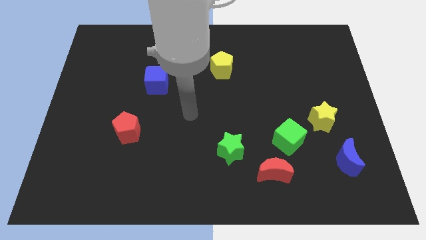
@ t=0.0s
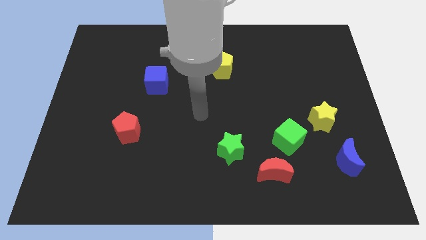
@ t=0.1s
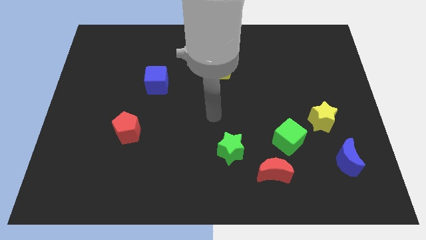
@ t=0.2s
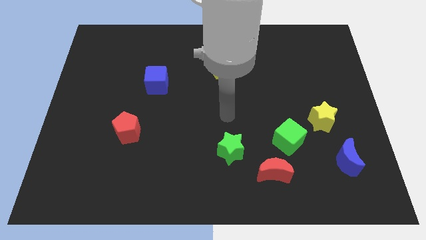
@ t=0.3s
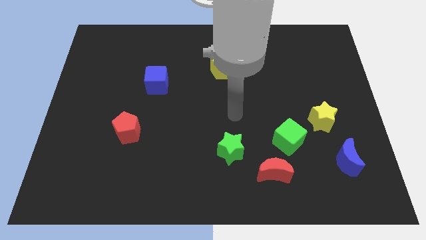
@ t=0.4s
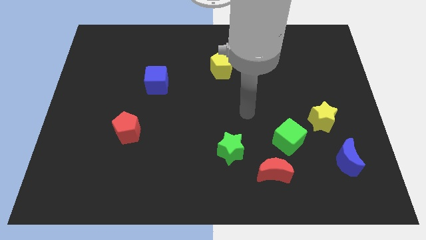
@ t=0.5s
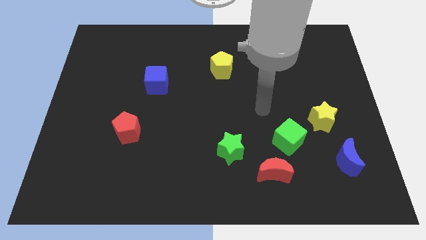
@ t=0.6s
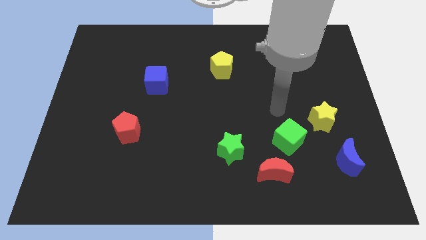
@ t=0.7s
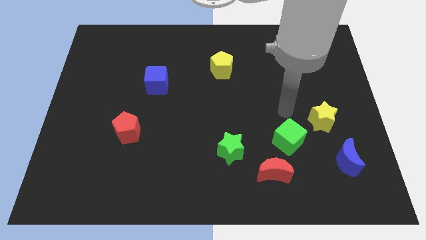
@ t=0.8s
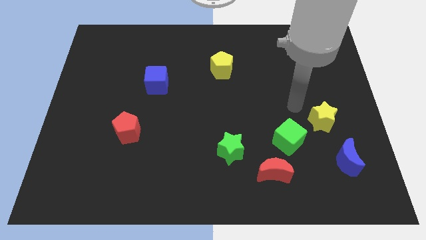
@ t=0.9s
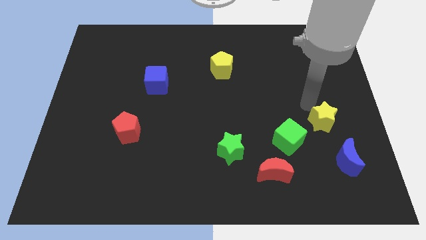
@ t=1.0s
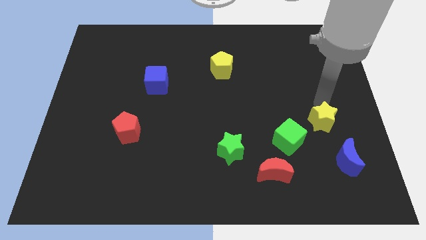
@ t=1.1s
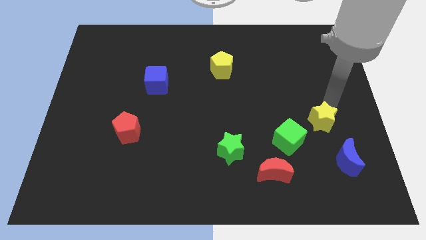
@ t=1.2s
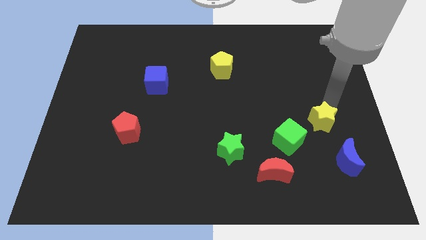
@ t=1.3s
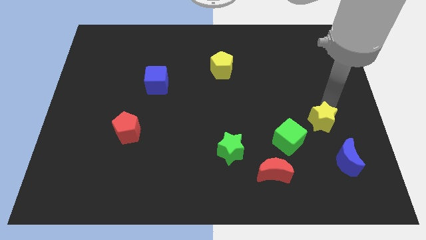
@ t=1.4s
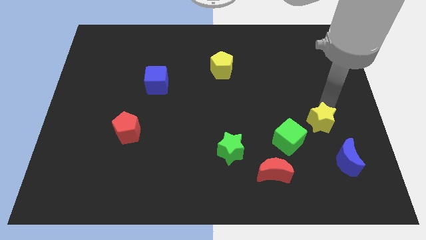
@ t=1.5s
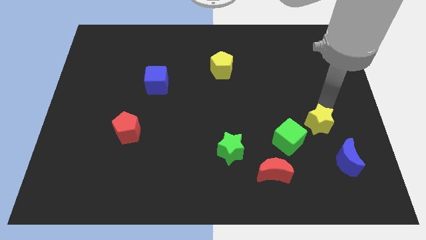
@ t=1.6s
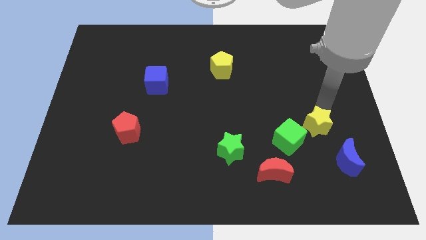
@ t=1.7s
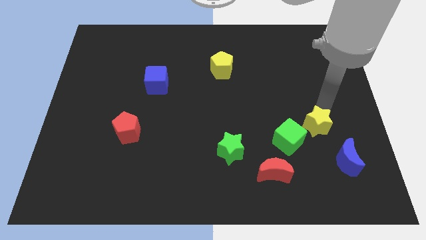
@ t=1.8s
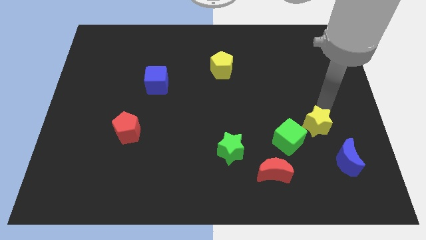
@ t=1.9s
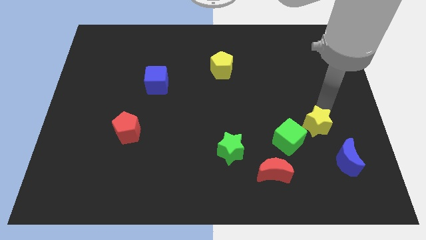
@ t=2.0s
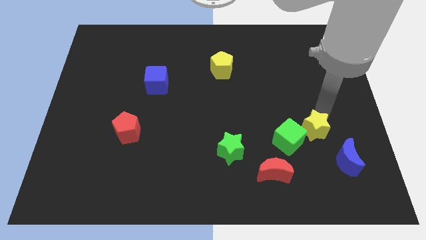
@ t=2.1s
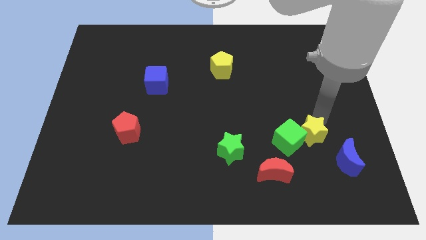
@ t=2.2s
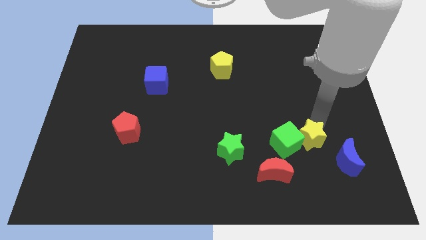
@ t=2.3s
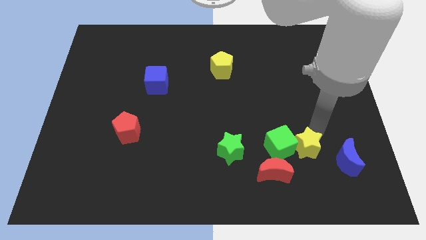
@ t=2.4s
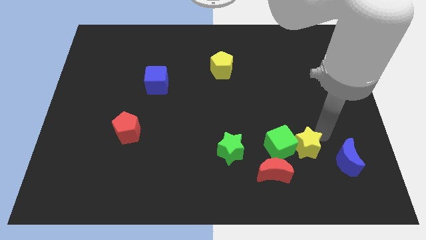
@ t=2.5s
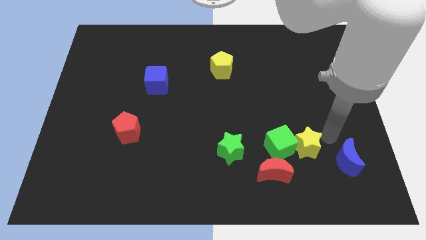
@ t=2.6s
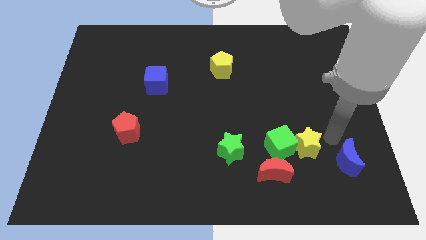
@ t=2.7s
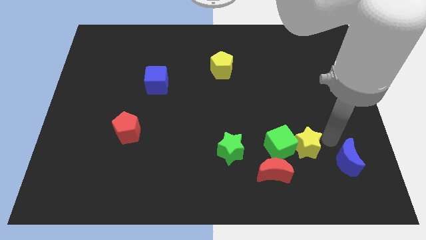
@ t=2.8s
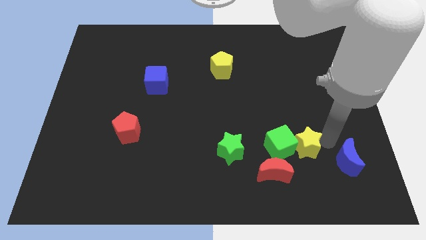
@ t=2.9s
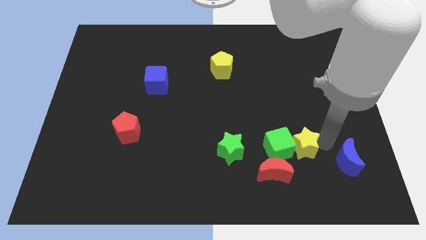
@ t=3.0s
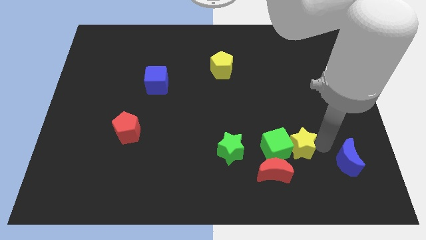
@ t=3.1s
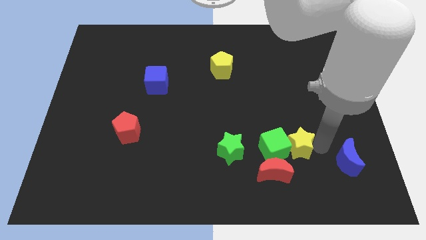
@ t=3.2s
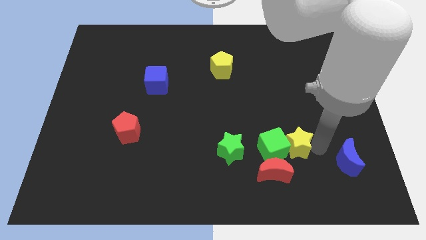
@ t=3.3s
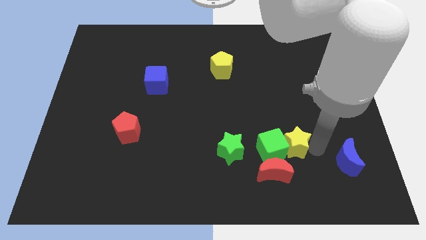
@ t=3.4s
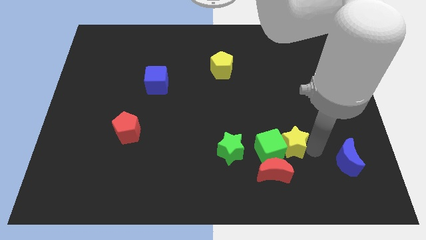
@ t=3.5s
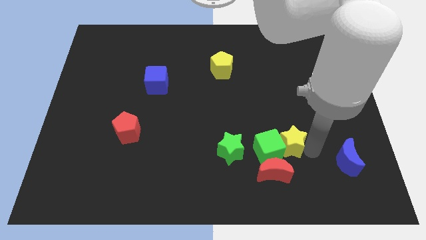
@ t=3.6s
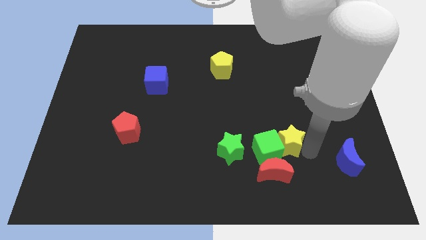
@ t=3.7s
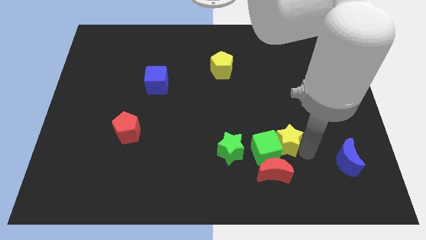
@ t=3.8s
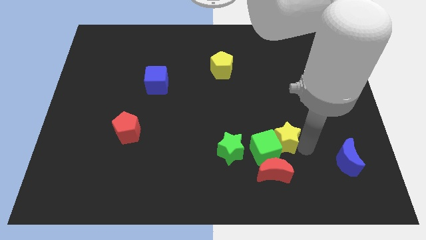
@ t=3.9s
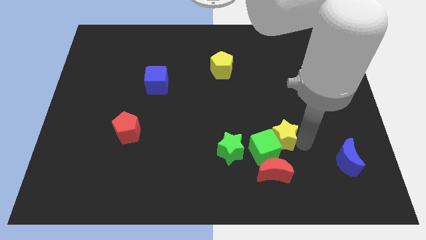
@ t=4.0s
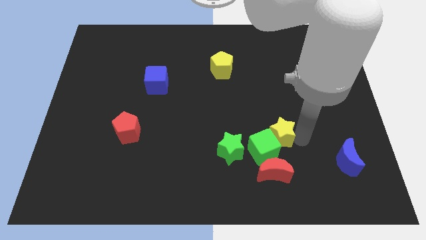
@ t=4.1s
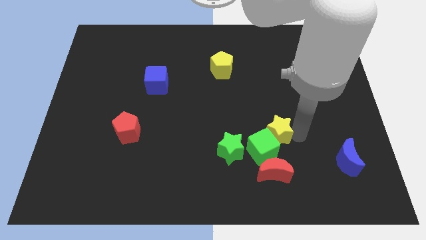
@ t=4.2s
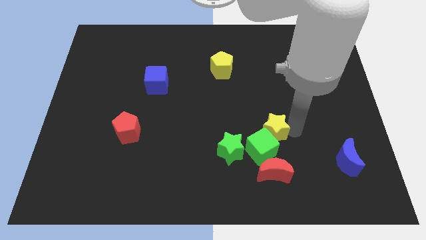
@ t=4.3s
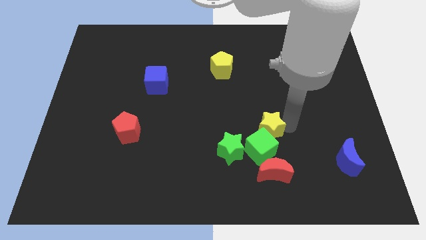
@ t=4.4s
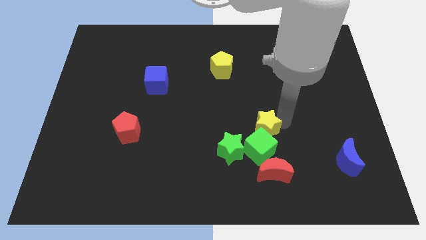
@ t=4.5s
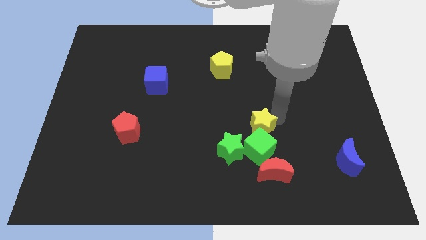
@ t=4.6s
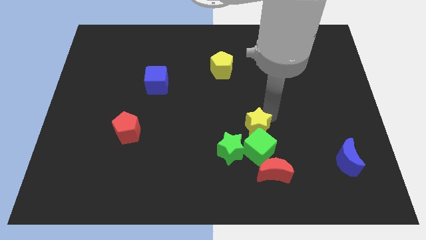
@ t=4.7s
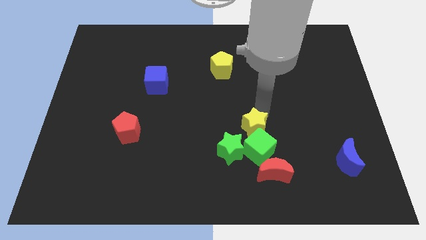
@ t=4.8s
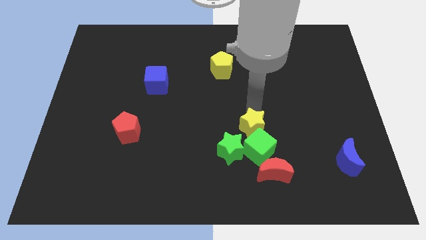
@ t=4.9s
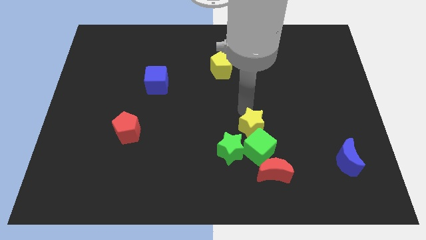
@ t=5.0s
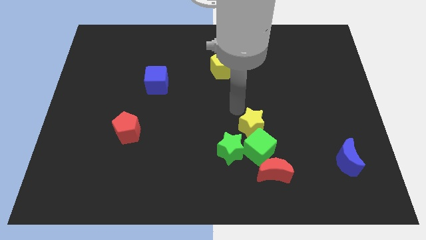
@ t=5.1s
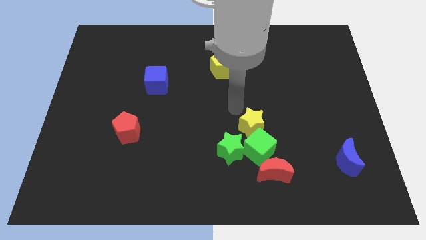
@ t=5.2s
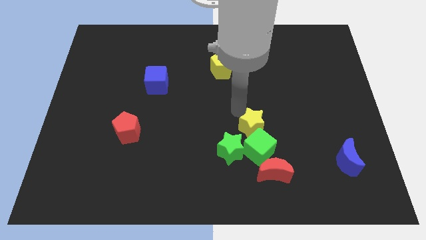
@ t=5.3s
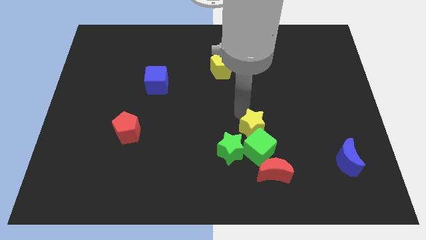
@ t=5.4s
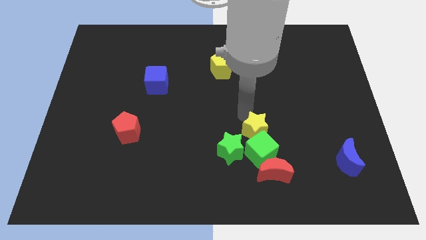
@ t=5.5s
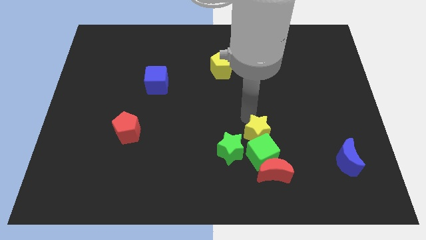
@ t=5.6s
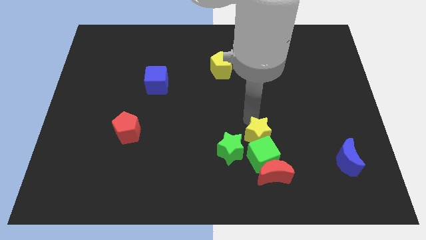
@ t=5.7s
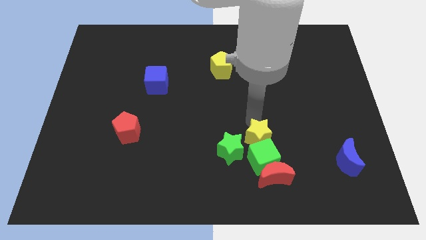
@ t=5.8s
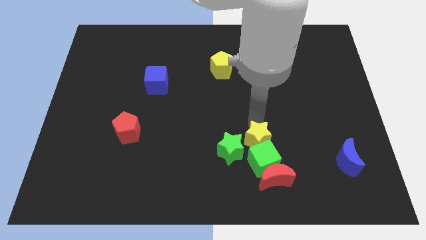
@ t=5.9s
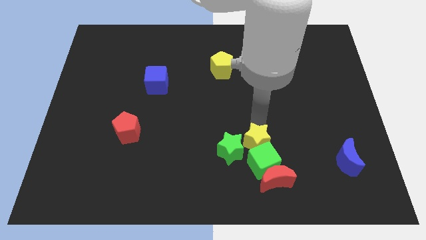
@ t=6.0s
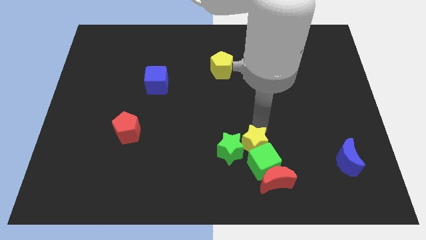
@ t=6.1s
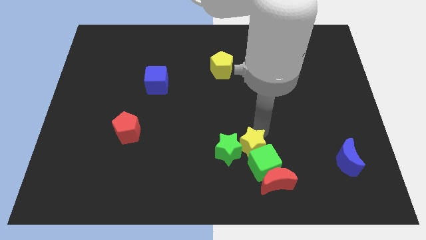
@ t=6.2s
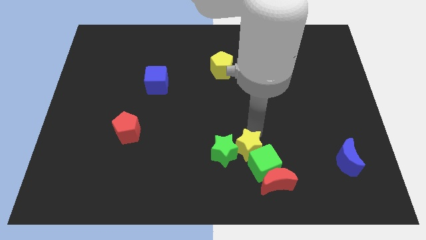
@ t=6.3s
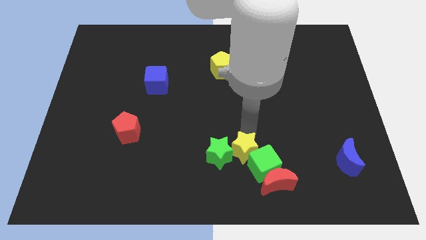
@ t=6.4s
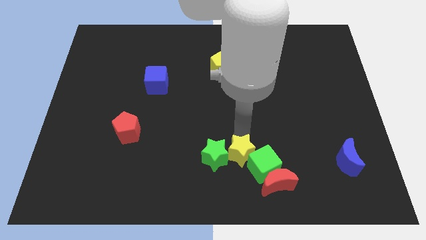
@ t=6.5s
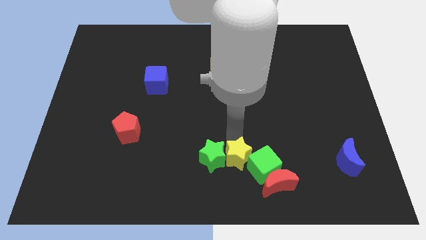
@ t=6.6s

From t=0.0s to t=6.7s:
push the yellow star to the bottom

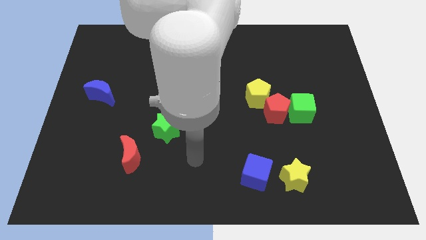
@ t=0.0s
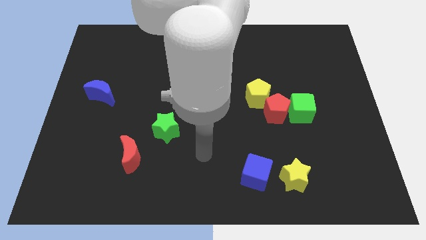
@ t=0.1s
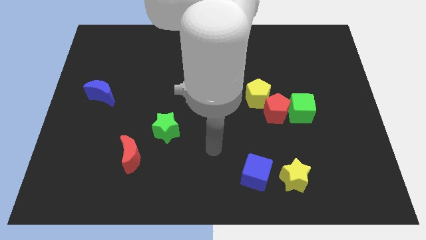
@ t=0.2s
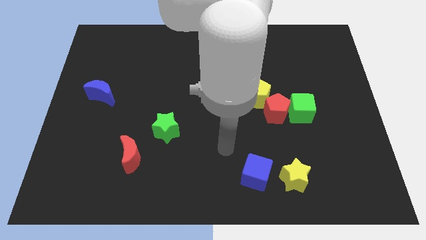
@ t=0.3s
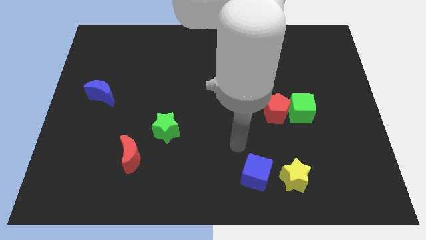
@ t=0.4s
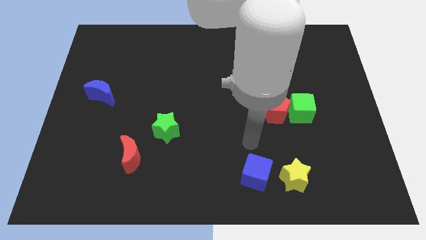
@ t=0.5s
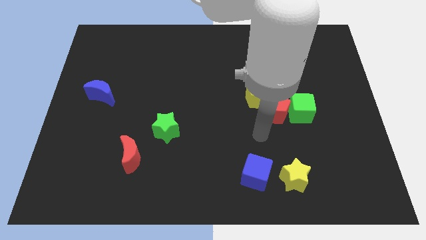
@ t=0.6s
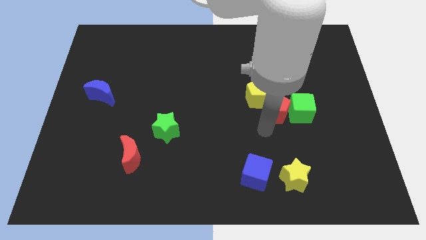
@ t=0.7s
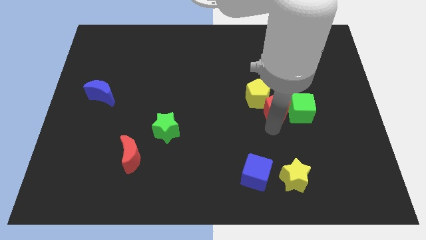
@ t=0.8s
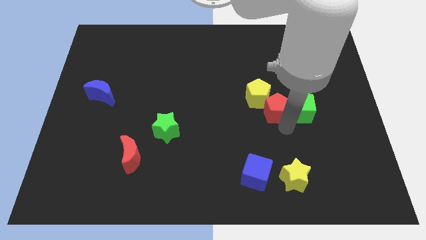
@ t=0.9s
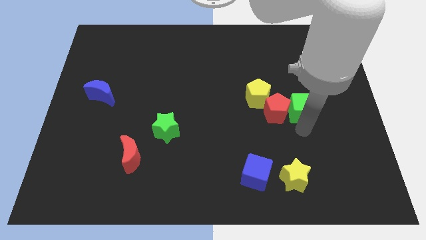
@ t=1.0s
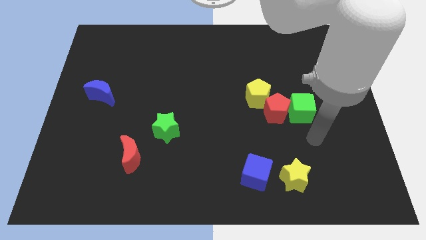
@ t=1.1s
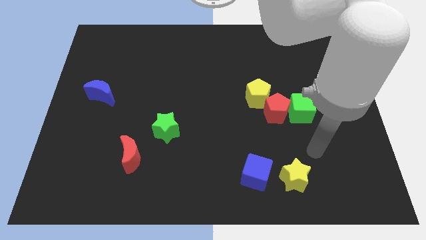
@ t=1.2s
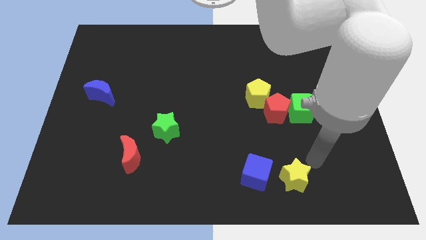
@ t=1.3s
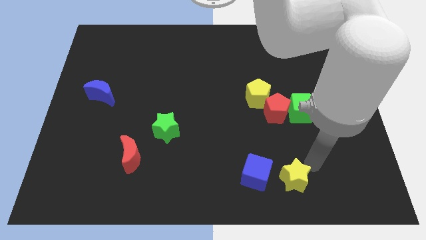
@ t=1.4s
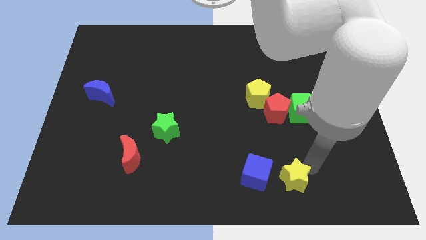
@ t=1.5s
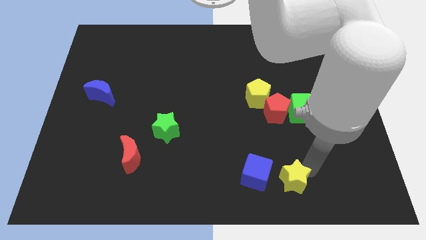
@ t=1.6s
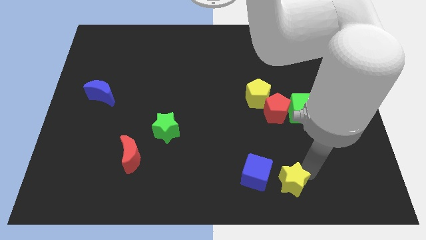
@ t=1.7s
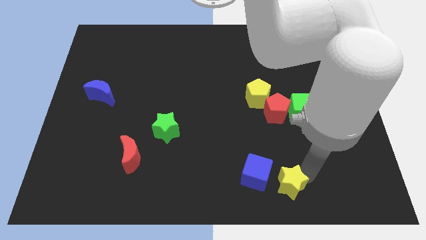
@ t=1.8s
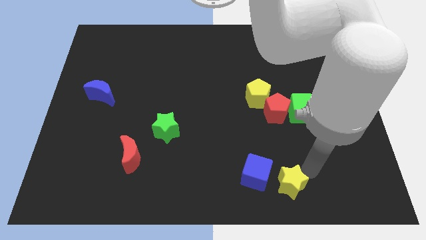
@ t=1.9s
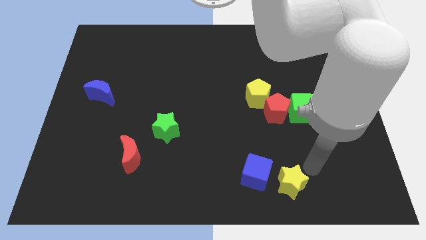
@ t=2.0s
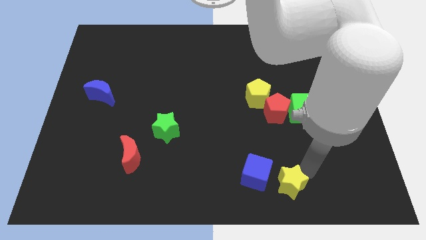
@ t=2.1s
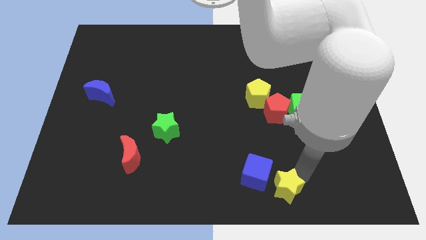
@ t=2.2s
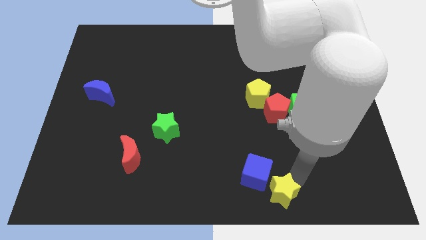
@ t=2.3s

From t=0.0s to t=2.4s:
put the yellow star to the bottom
